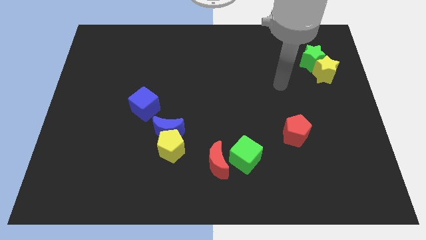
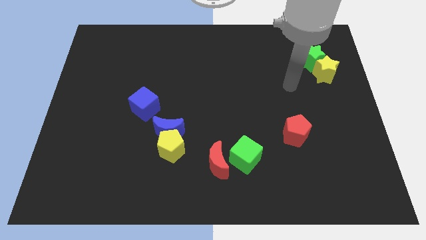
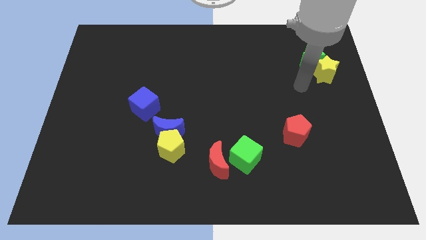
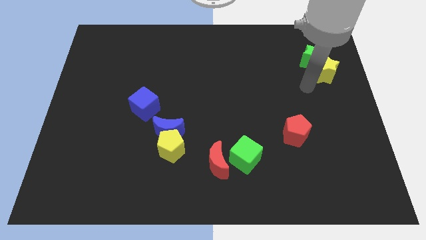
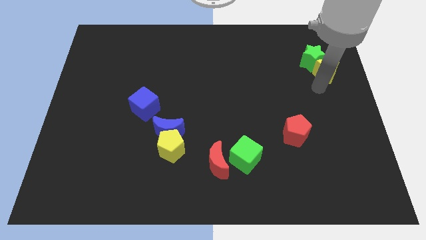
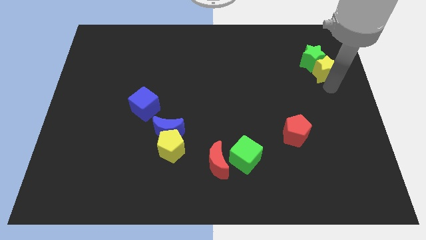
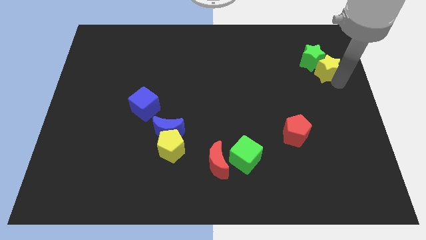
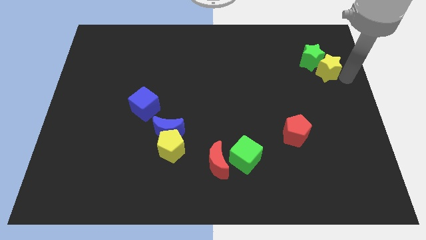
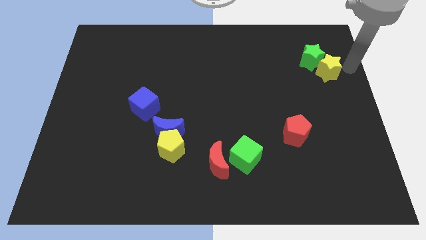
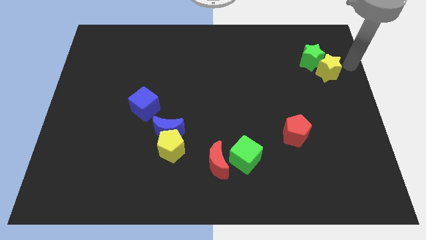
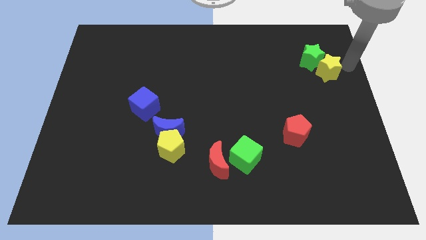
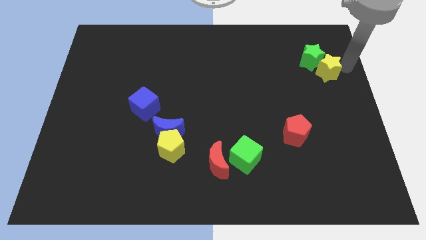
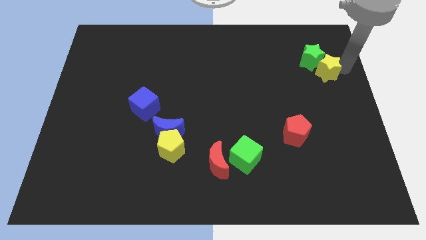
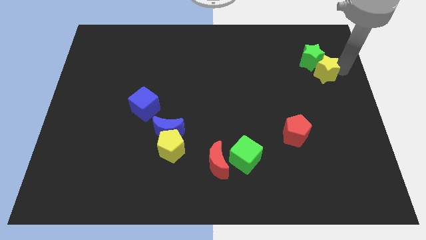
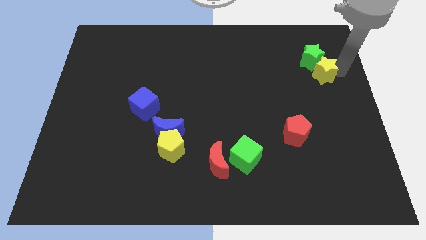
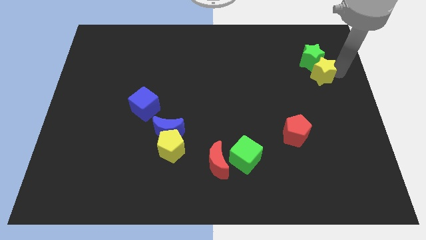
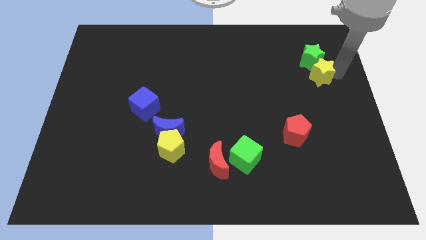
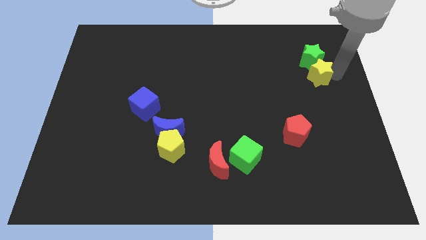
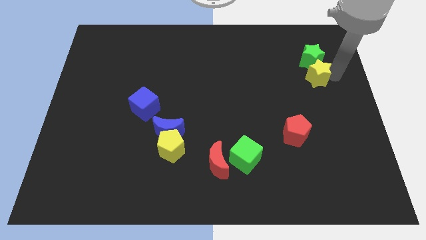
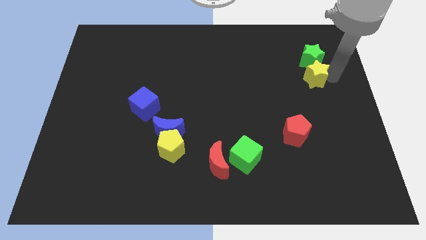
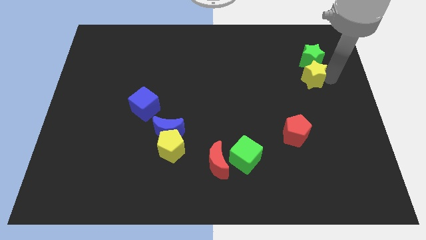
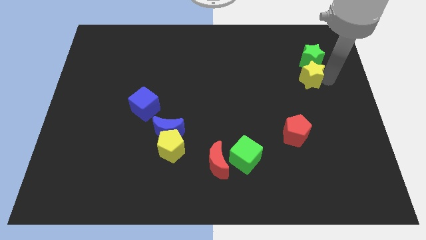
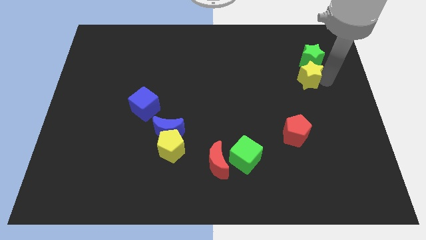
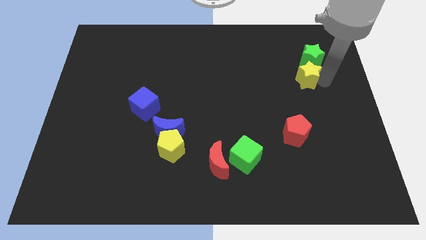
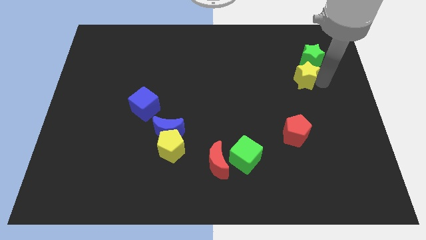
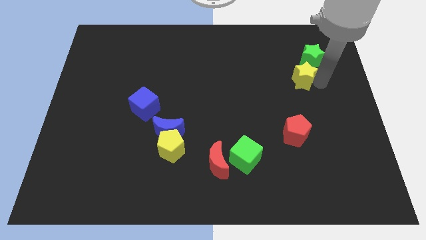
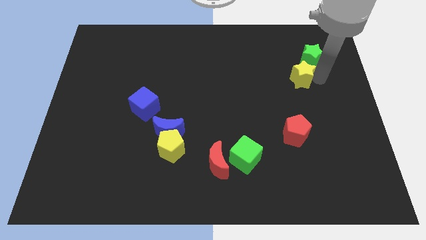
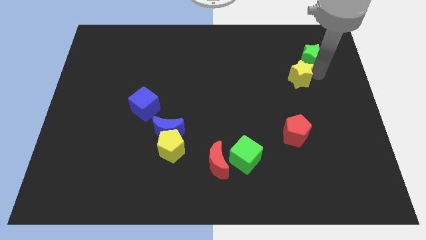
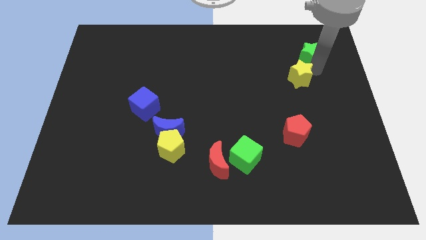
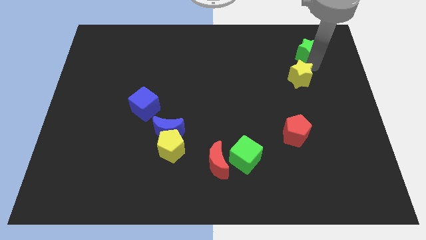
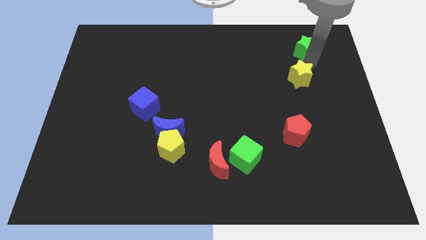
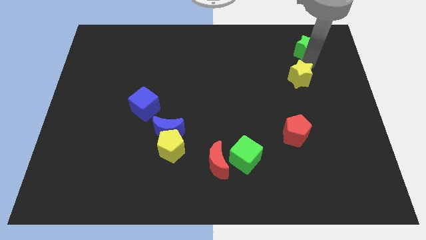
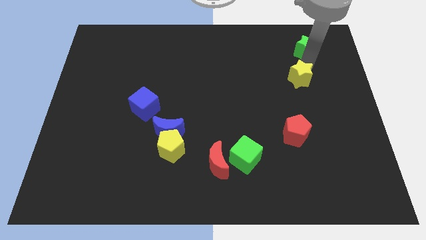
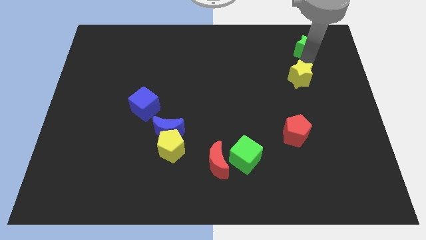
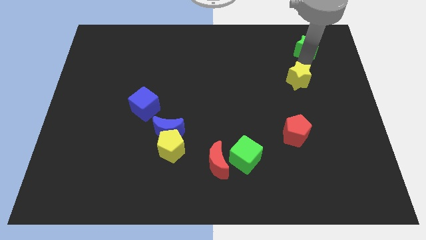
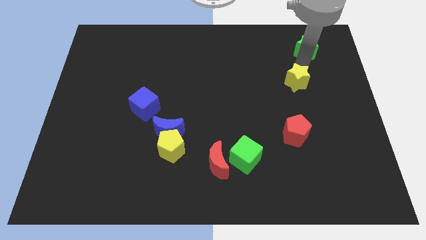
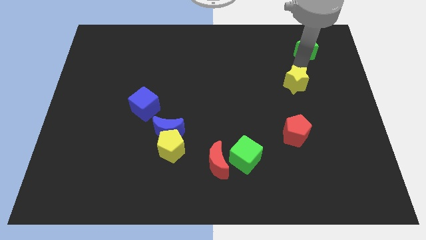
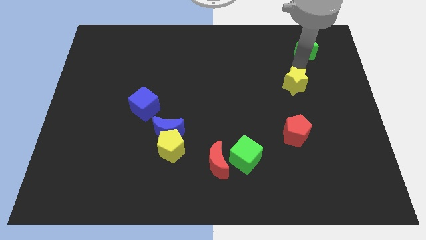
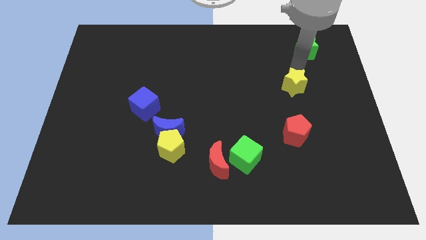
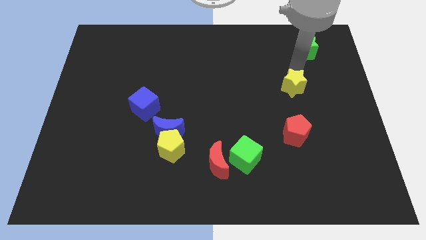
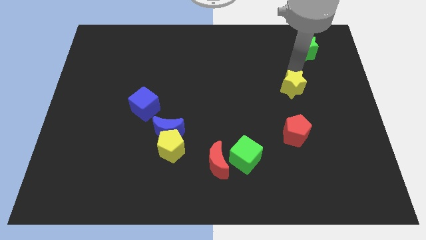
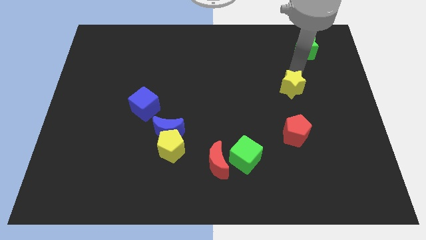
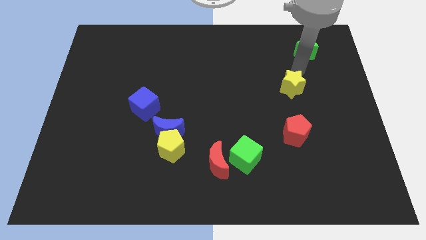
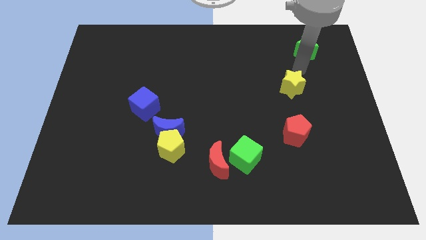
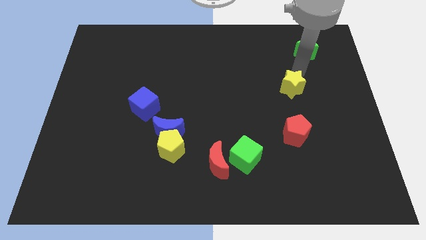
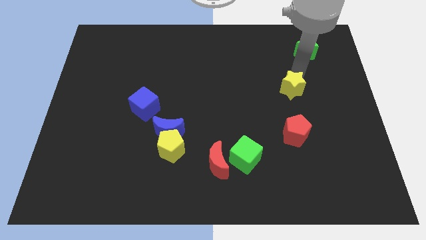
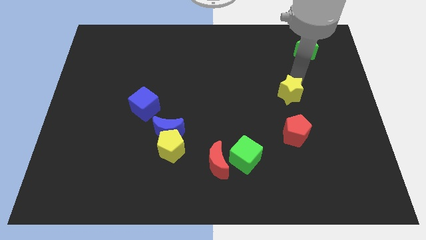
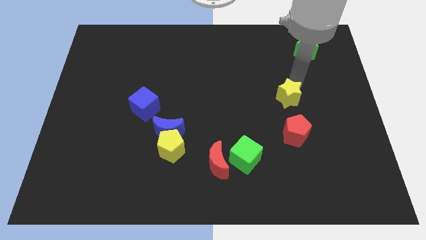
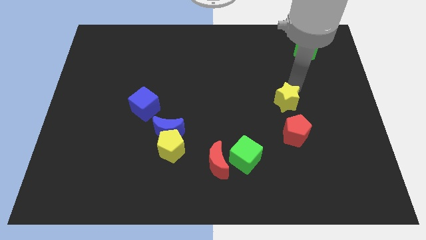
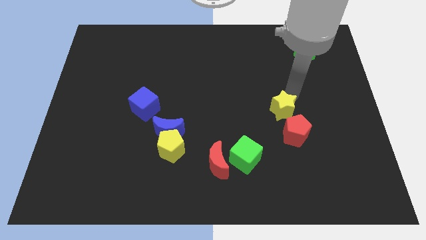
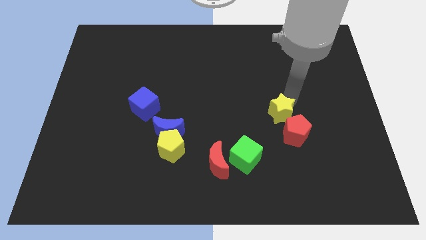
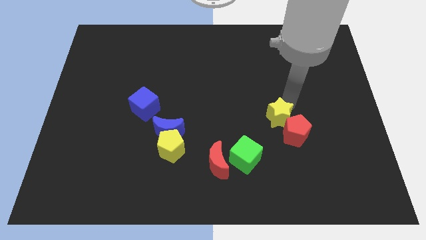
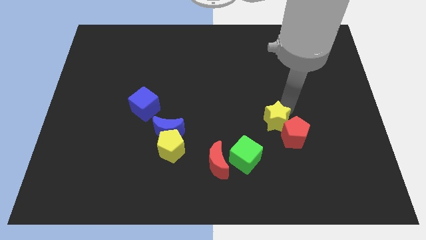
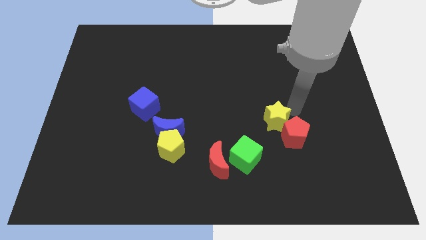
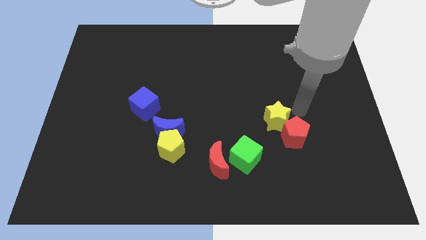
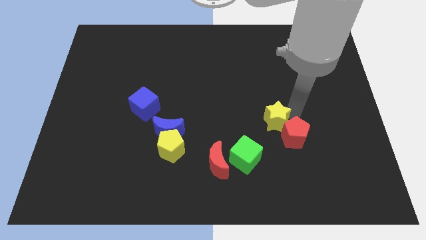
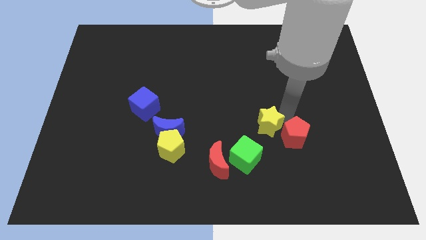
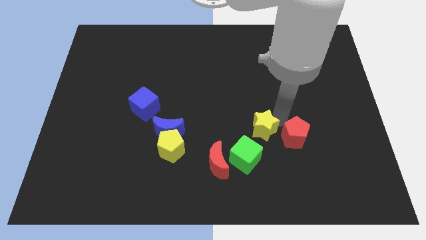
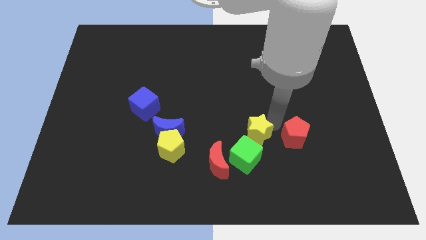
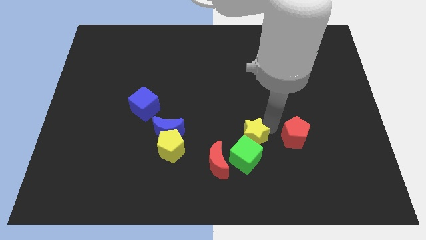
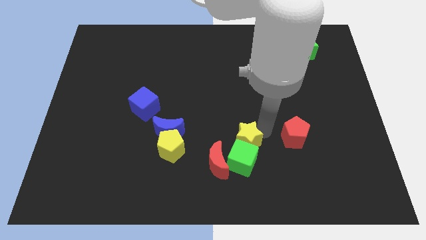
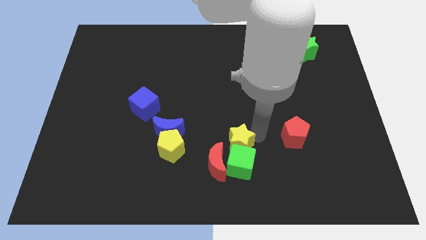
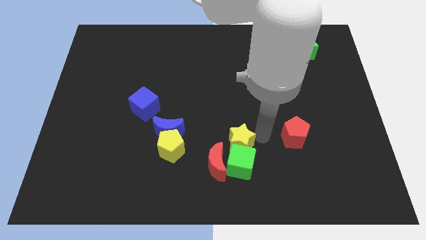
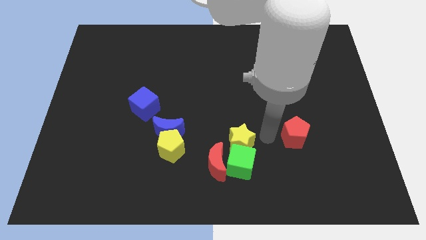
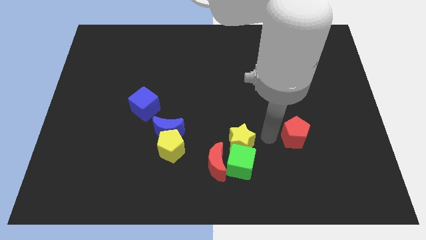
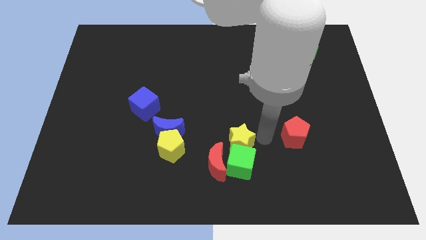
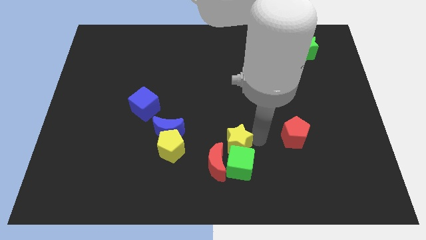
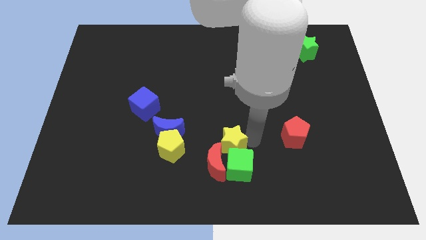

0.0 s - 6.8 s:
put the yellow star to the red moon
